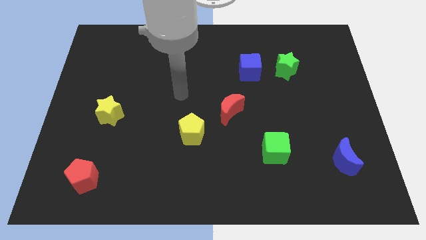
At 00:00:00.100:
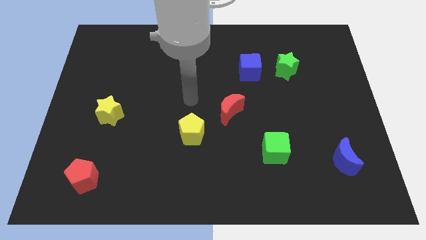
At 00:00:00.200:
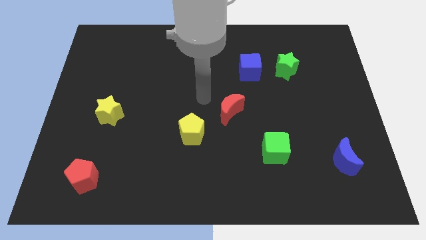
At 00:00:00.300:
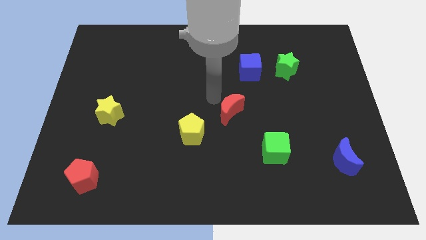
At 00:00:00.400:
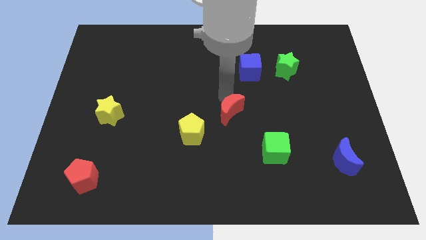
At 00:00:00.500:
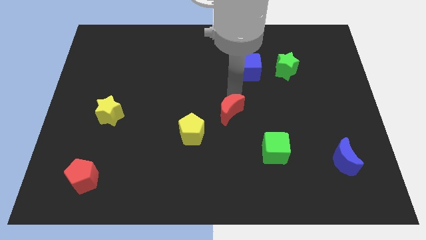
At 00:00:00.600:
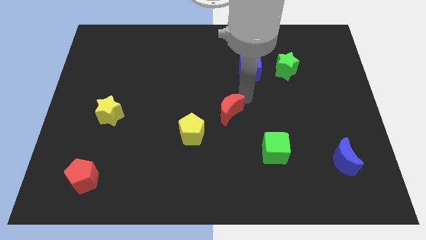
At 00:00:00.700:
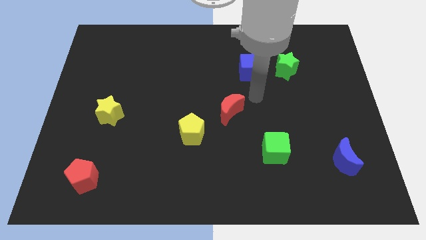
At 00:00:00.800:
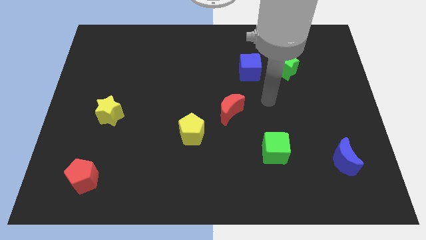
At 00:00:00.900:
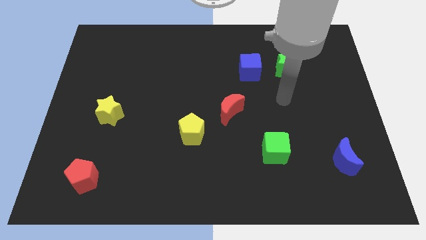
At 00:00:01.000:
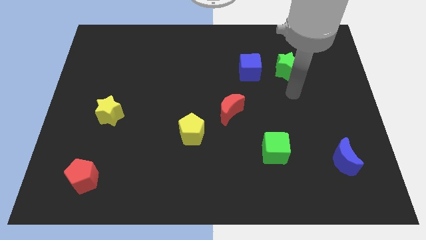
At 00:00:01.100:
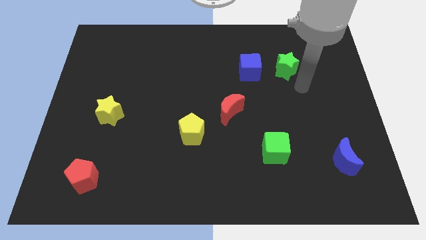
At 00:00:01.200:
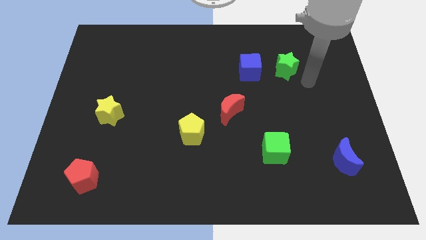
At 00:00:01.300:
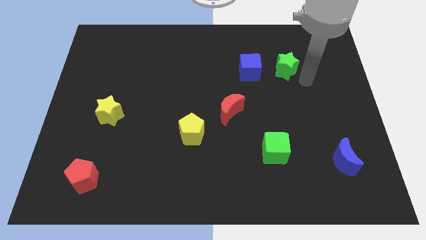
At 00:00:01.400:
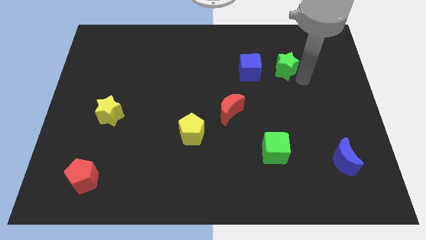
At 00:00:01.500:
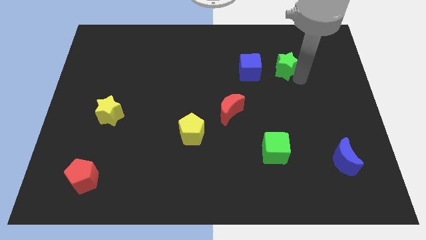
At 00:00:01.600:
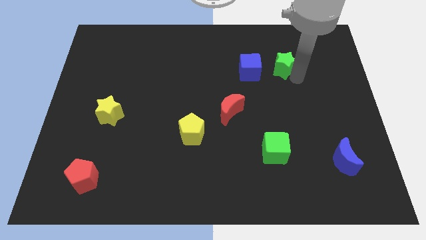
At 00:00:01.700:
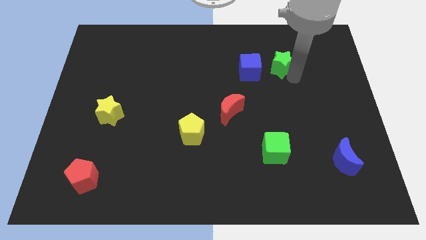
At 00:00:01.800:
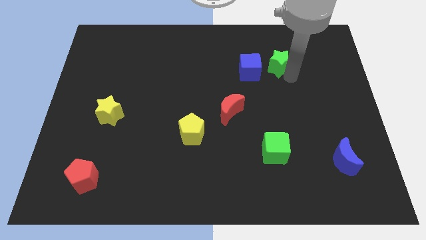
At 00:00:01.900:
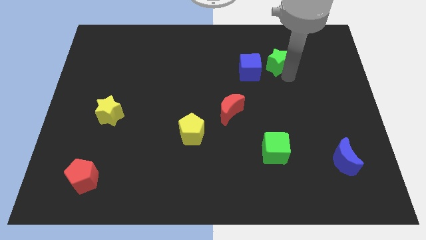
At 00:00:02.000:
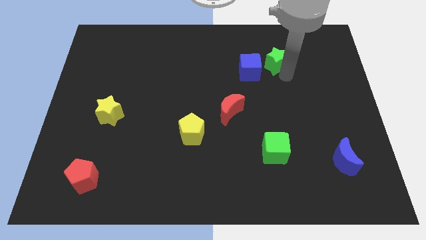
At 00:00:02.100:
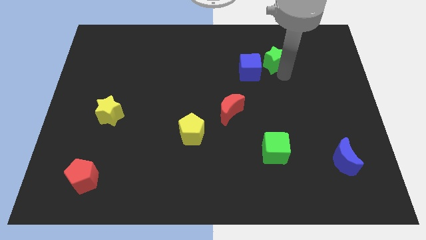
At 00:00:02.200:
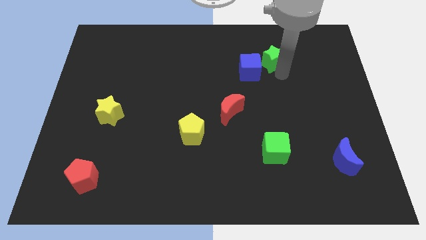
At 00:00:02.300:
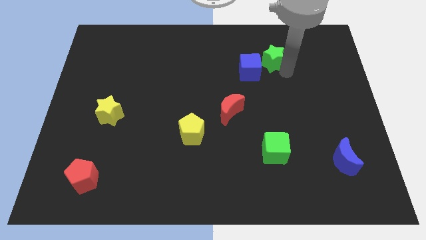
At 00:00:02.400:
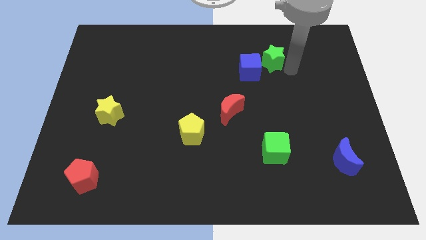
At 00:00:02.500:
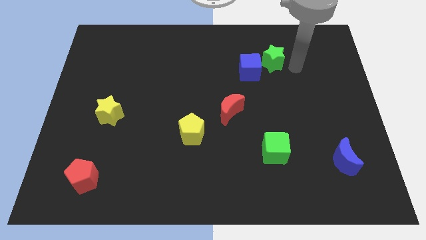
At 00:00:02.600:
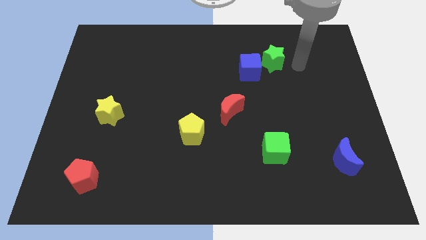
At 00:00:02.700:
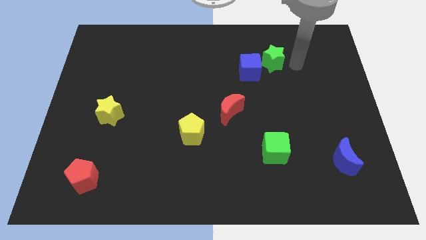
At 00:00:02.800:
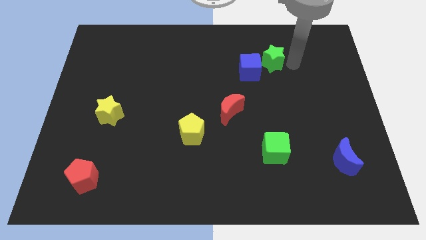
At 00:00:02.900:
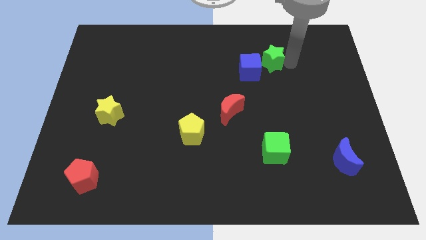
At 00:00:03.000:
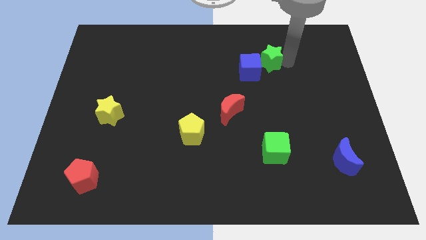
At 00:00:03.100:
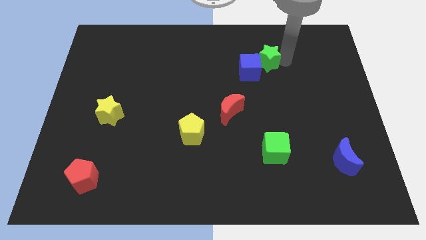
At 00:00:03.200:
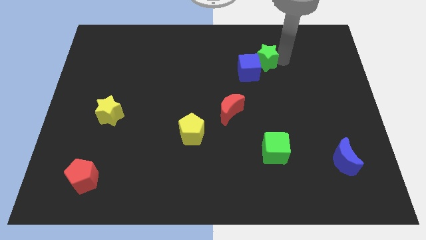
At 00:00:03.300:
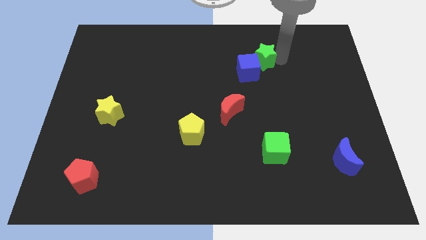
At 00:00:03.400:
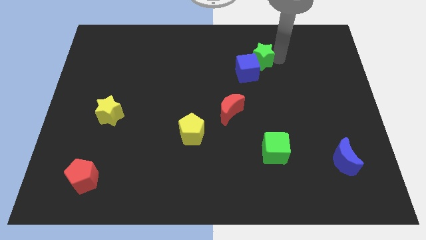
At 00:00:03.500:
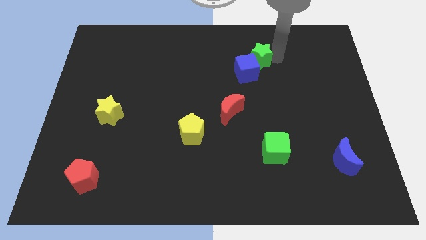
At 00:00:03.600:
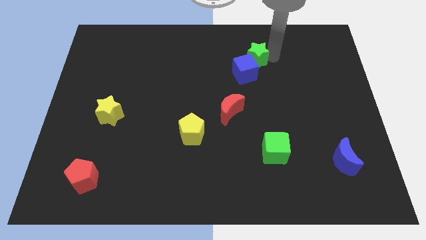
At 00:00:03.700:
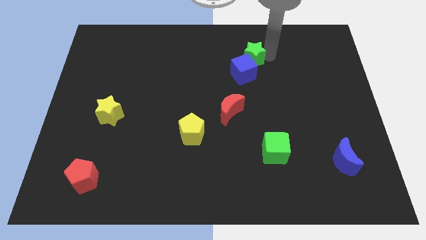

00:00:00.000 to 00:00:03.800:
push the green star left a bit

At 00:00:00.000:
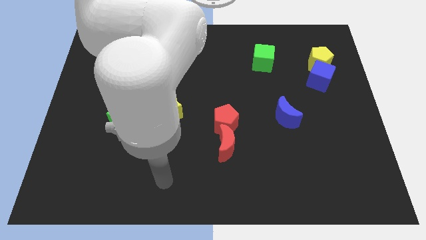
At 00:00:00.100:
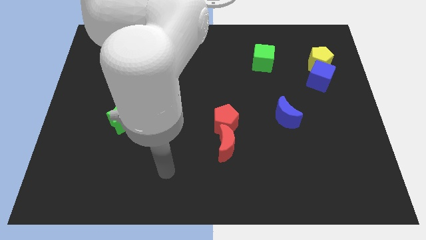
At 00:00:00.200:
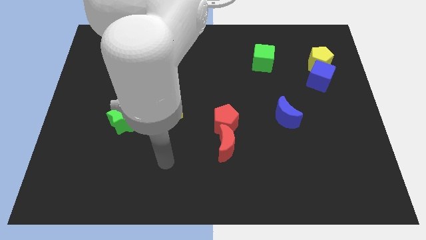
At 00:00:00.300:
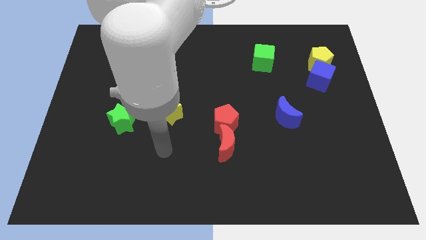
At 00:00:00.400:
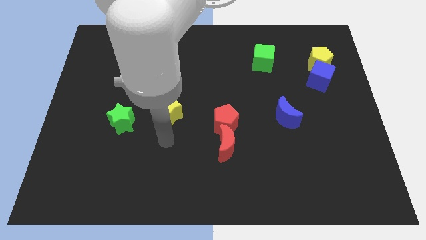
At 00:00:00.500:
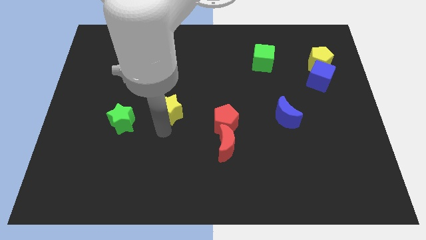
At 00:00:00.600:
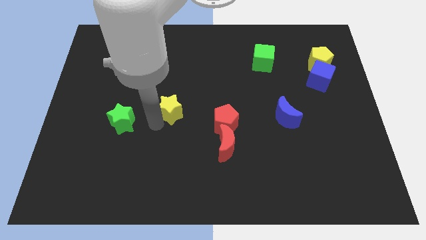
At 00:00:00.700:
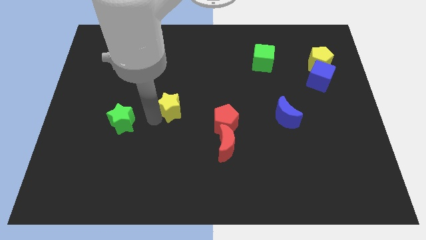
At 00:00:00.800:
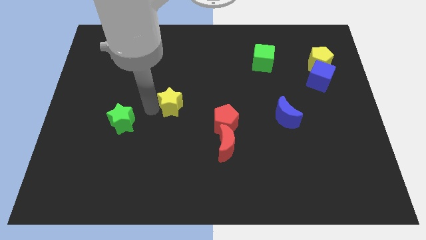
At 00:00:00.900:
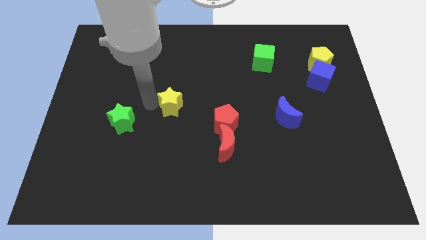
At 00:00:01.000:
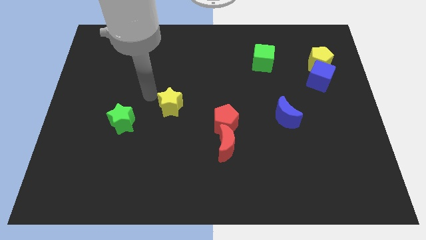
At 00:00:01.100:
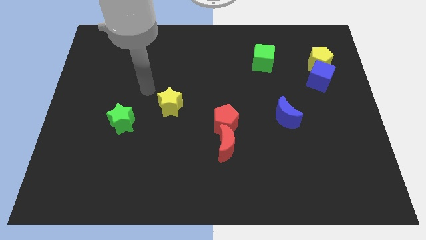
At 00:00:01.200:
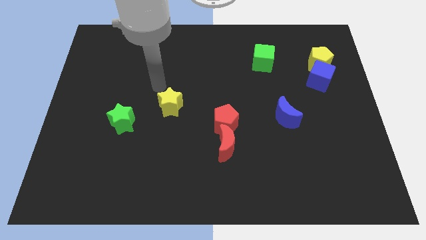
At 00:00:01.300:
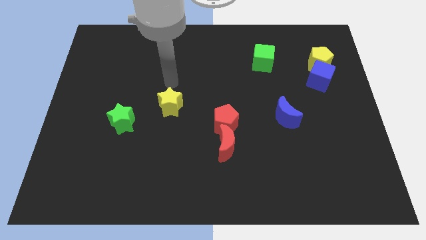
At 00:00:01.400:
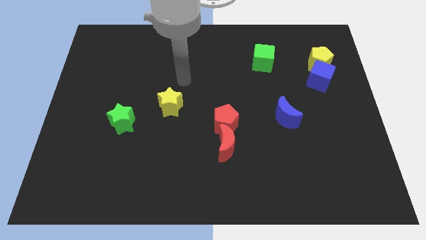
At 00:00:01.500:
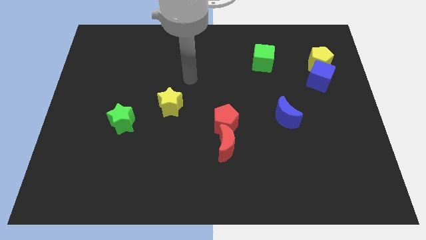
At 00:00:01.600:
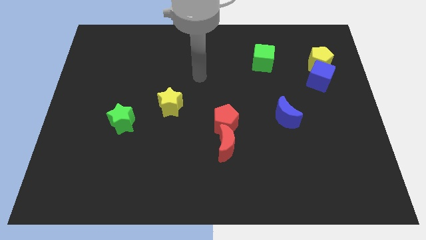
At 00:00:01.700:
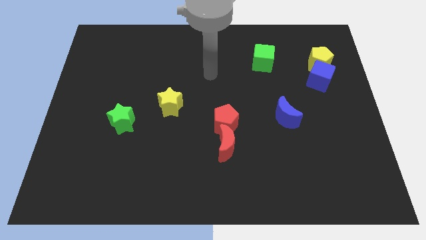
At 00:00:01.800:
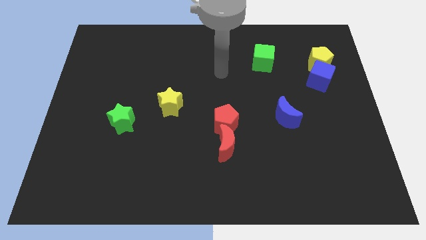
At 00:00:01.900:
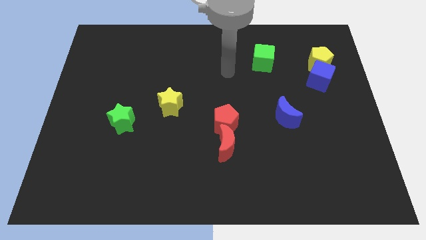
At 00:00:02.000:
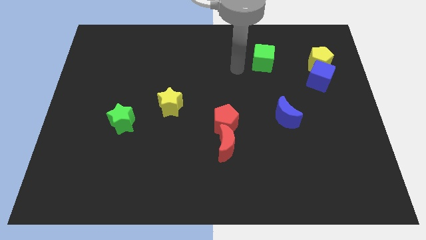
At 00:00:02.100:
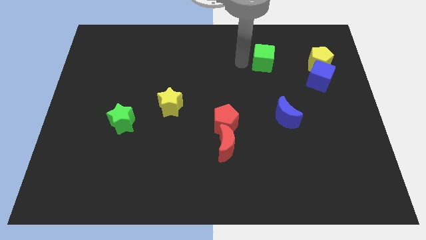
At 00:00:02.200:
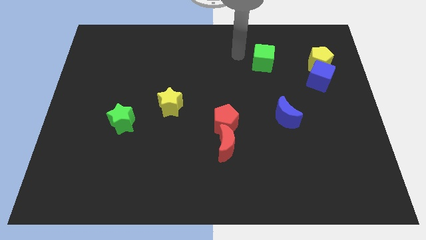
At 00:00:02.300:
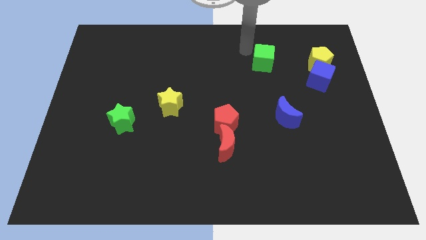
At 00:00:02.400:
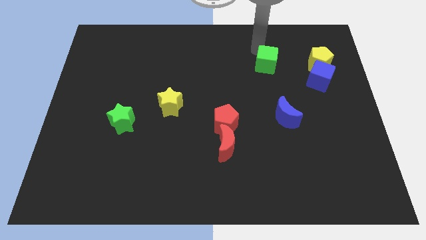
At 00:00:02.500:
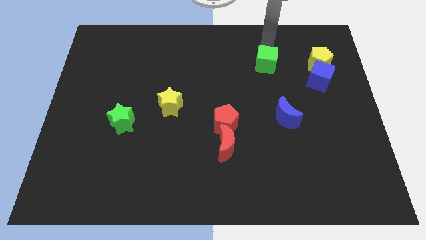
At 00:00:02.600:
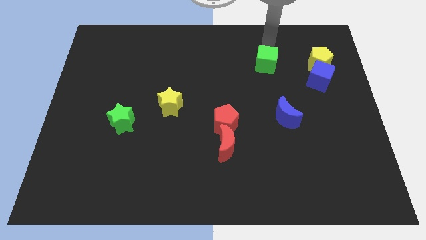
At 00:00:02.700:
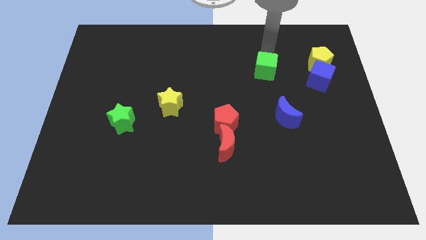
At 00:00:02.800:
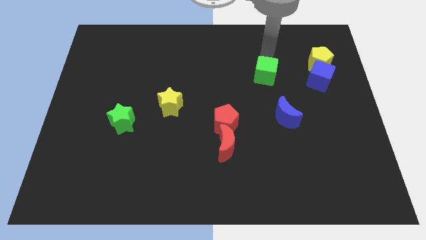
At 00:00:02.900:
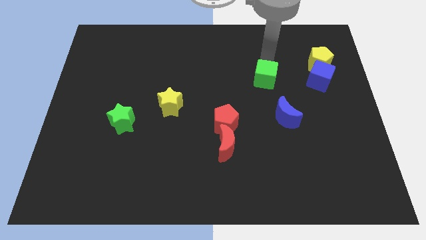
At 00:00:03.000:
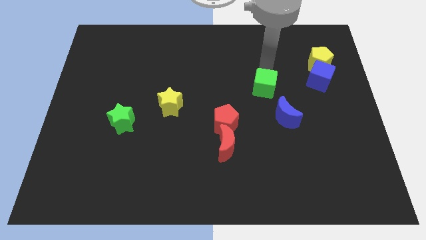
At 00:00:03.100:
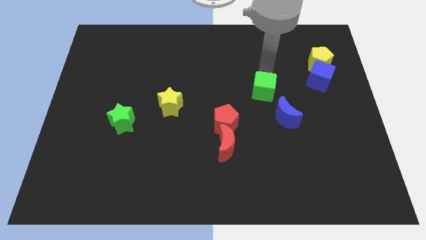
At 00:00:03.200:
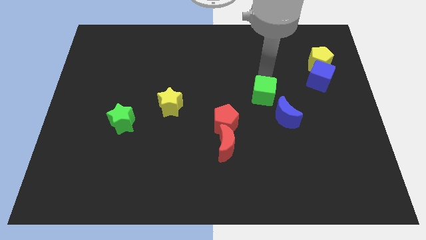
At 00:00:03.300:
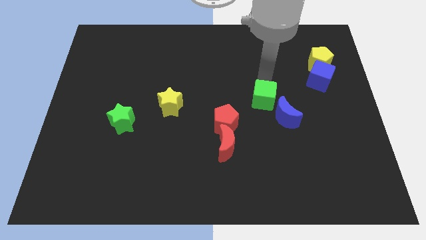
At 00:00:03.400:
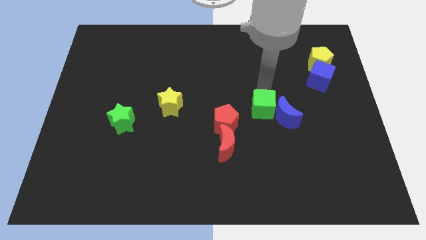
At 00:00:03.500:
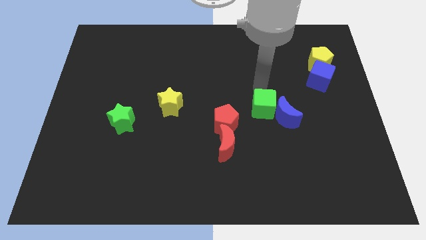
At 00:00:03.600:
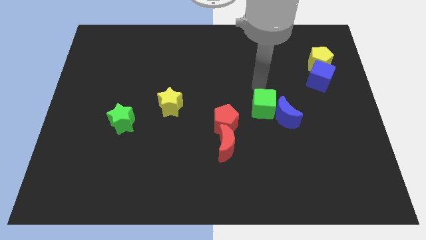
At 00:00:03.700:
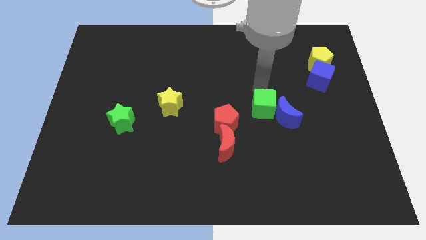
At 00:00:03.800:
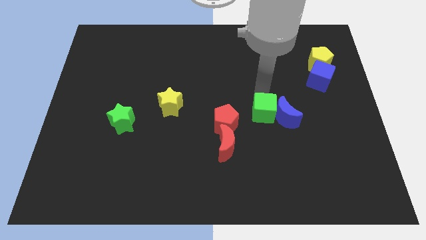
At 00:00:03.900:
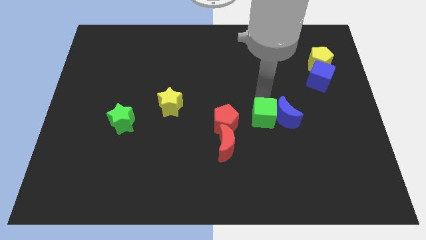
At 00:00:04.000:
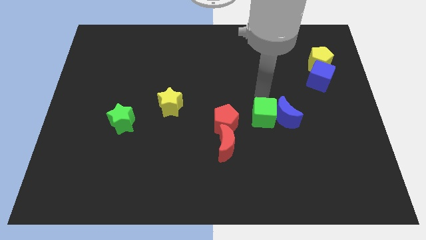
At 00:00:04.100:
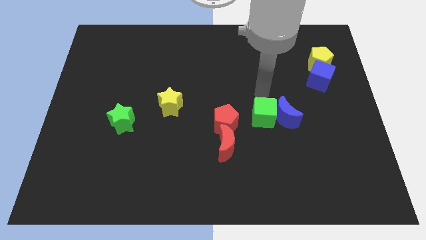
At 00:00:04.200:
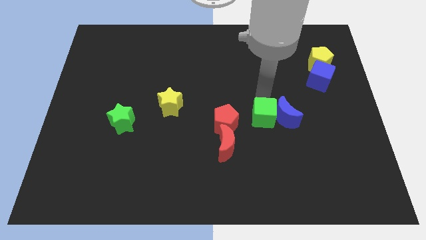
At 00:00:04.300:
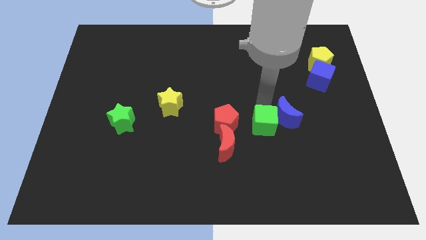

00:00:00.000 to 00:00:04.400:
slide the green cube downwards
